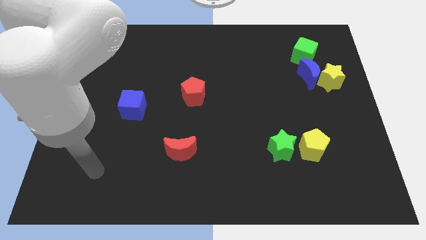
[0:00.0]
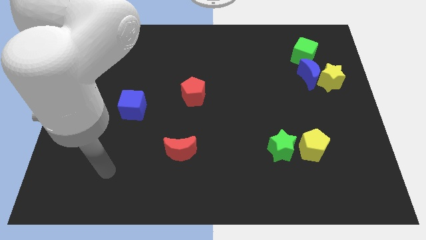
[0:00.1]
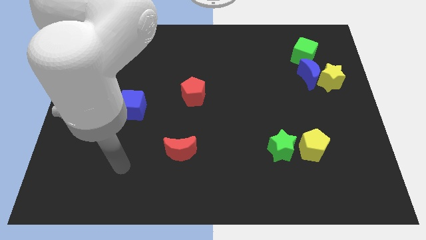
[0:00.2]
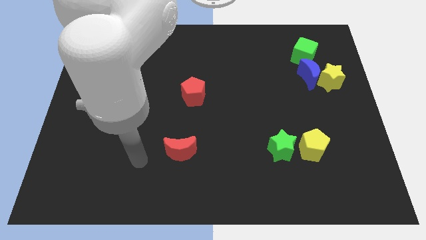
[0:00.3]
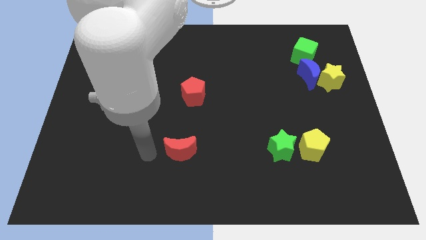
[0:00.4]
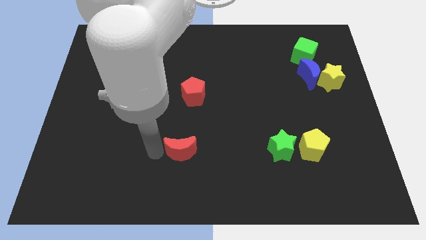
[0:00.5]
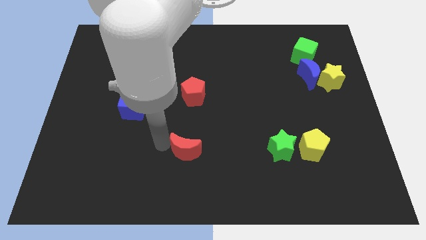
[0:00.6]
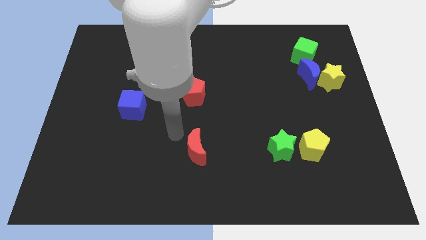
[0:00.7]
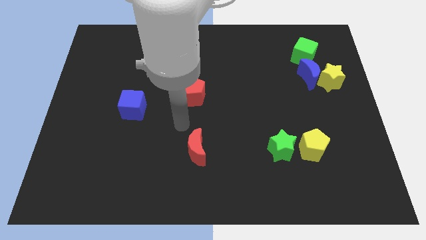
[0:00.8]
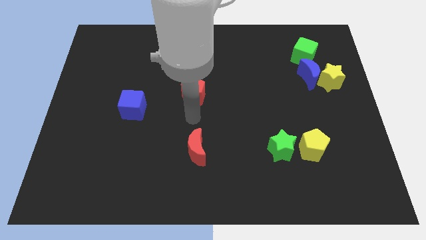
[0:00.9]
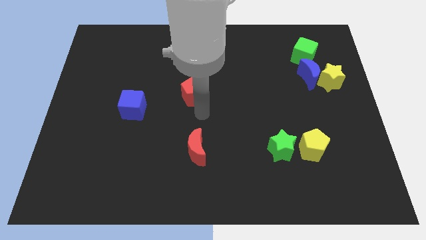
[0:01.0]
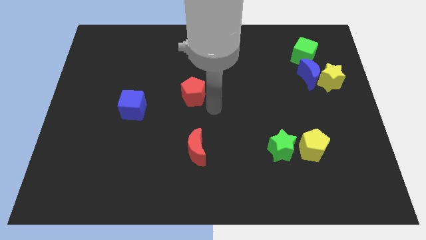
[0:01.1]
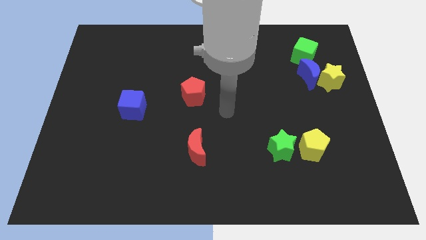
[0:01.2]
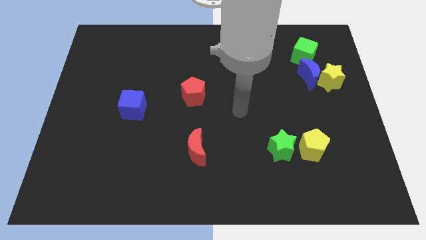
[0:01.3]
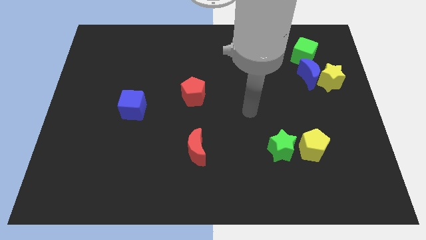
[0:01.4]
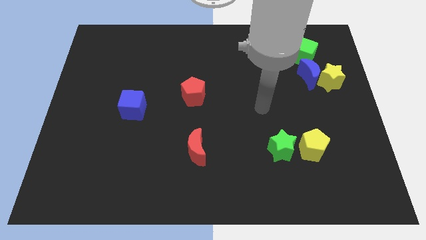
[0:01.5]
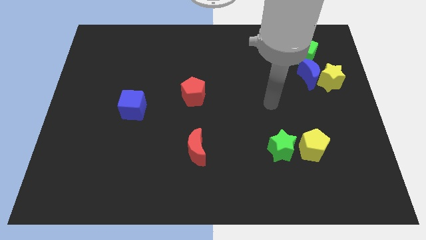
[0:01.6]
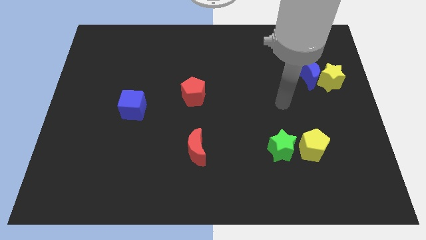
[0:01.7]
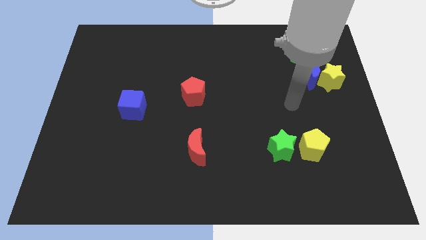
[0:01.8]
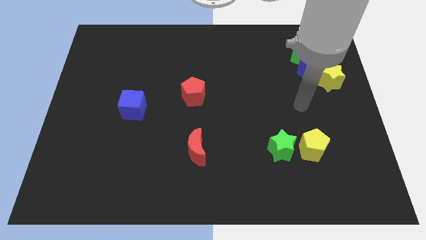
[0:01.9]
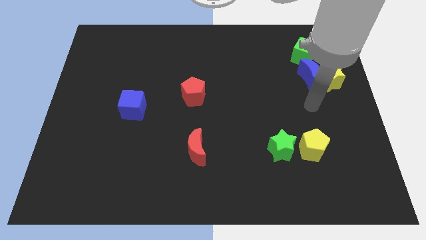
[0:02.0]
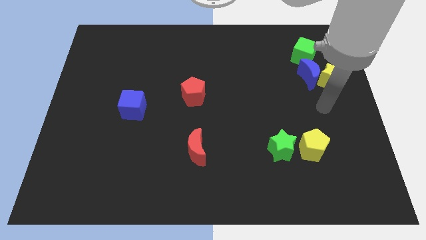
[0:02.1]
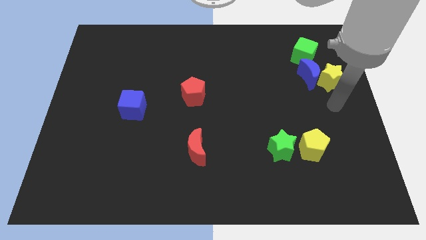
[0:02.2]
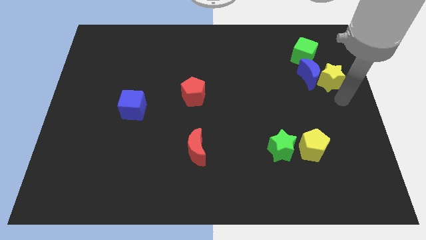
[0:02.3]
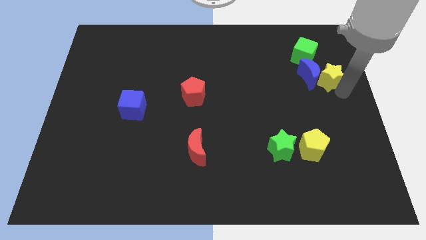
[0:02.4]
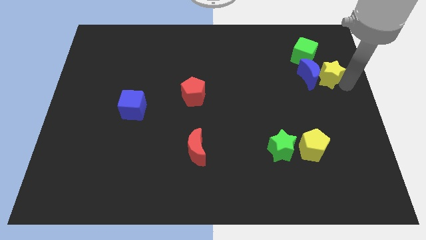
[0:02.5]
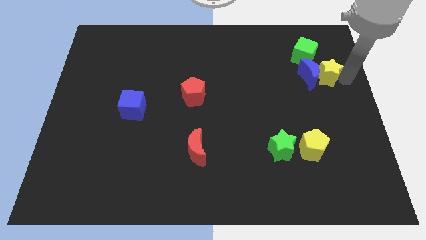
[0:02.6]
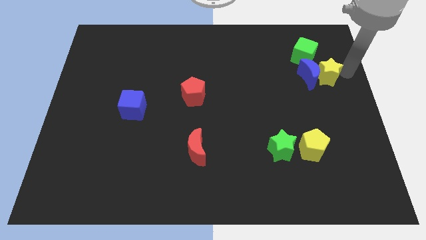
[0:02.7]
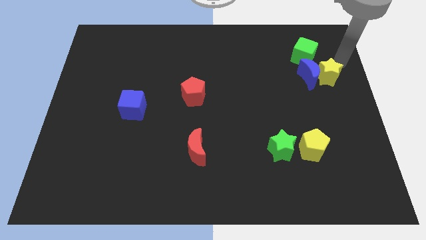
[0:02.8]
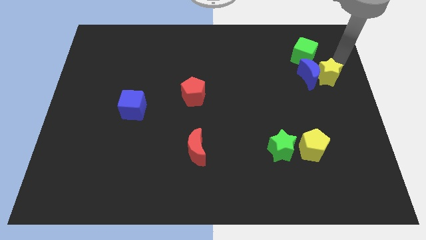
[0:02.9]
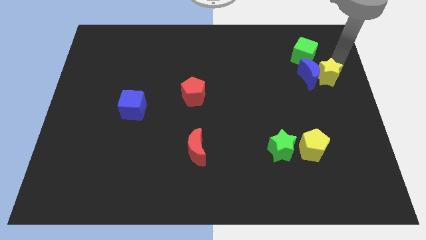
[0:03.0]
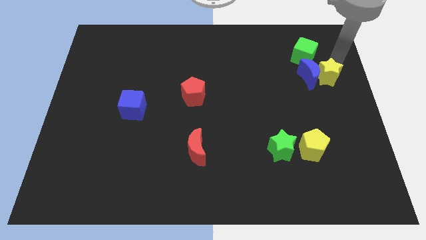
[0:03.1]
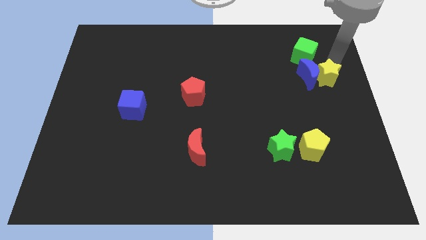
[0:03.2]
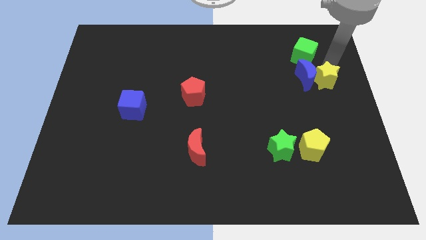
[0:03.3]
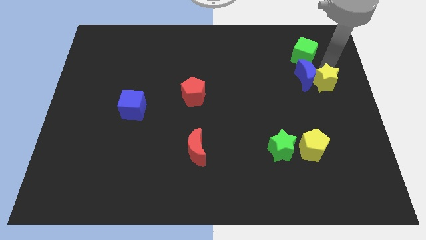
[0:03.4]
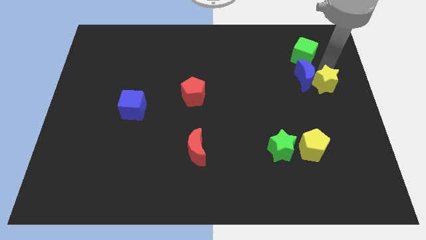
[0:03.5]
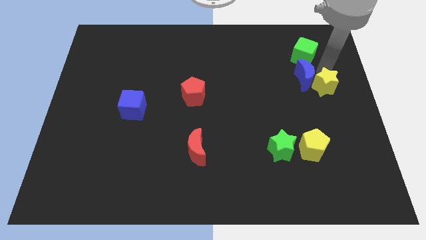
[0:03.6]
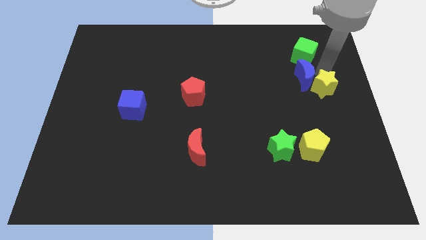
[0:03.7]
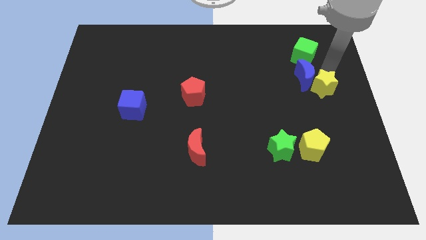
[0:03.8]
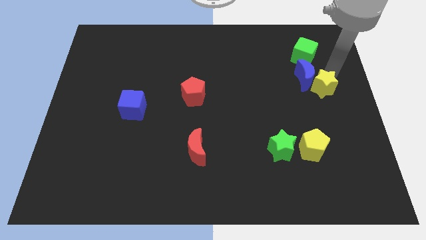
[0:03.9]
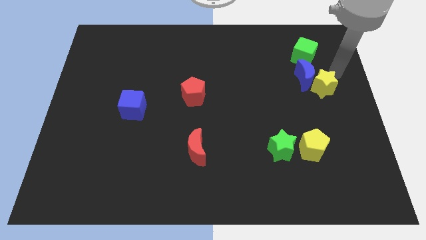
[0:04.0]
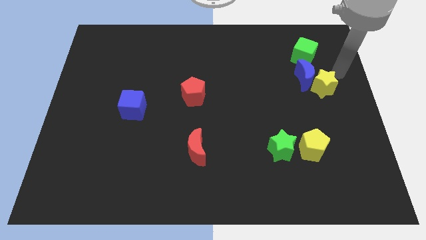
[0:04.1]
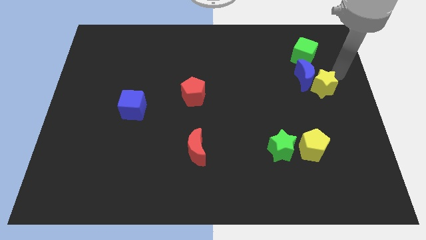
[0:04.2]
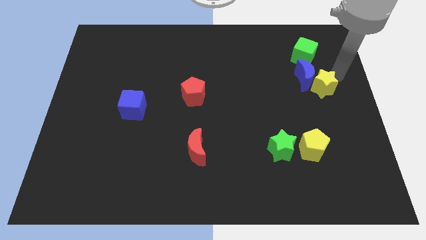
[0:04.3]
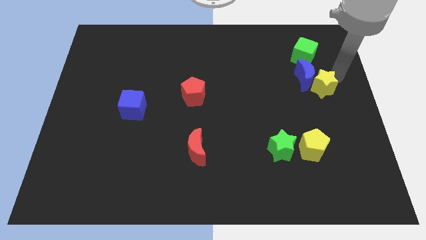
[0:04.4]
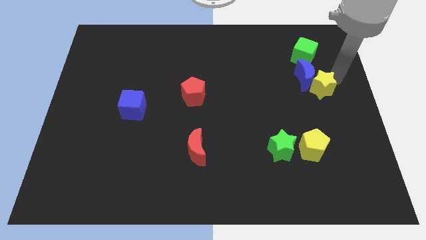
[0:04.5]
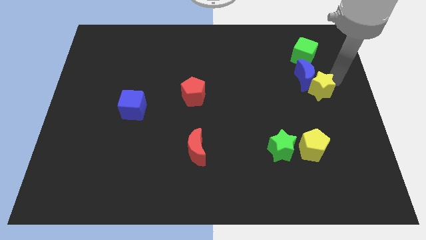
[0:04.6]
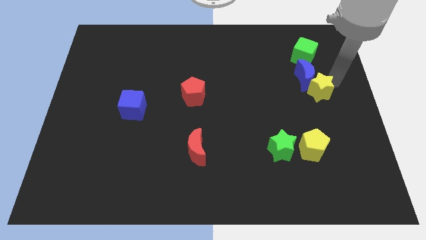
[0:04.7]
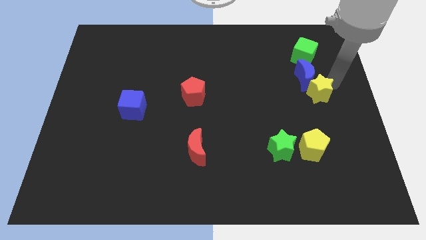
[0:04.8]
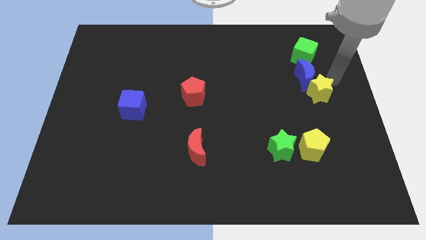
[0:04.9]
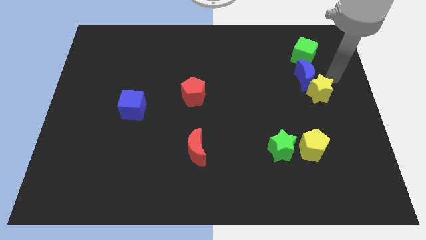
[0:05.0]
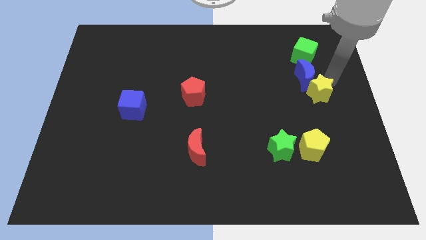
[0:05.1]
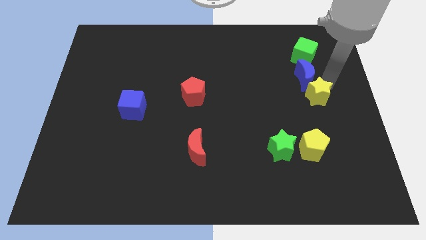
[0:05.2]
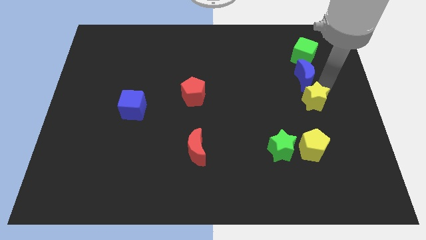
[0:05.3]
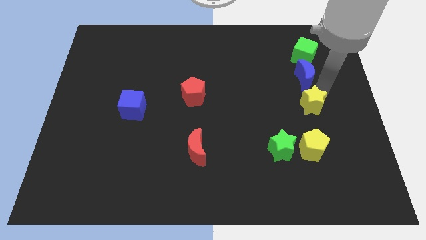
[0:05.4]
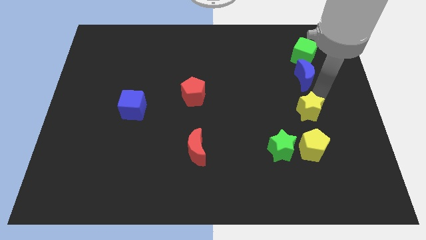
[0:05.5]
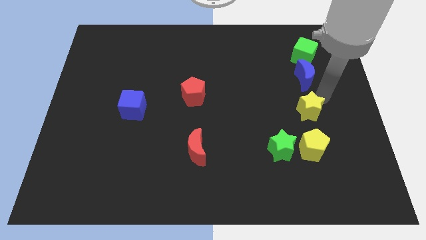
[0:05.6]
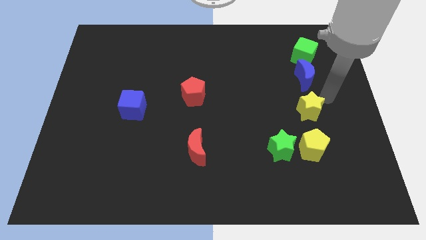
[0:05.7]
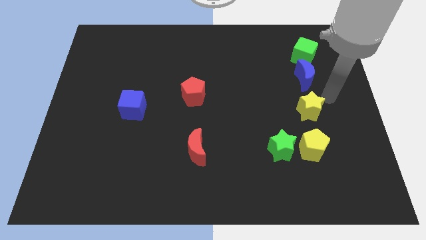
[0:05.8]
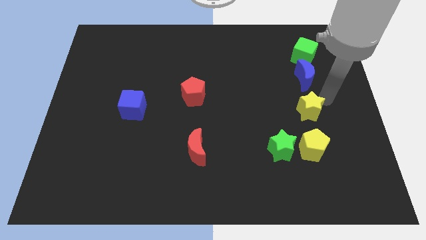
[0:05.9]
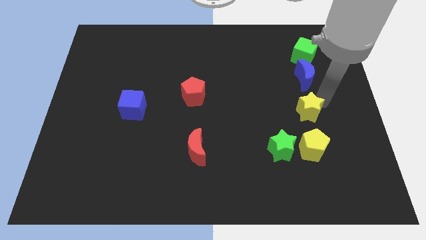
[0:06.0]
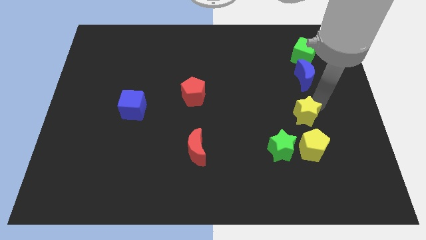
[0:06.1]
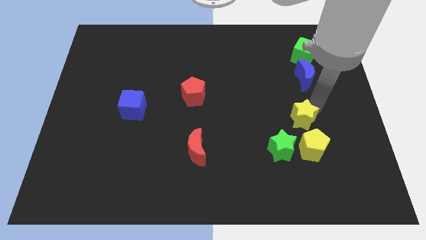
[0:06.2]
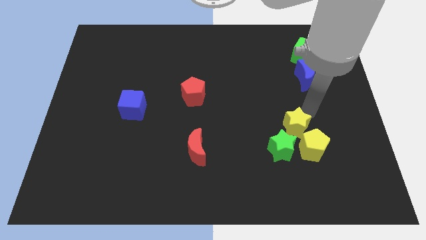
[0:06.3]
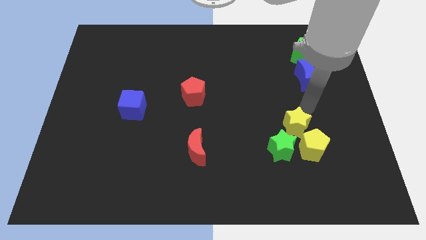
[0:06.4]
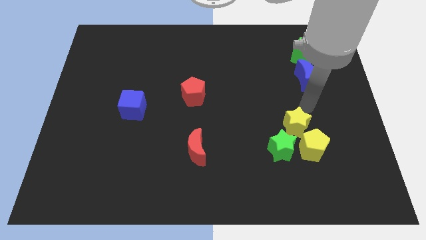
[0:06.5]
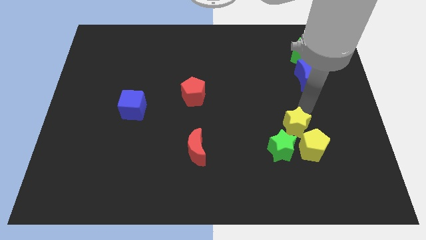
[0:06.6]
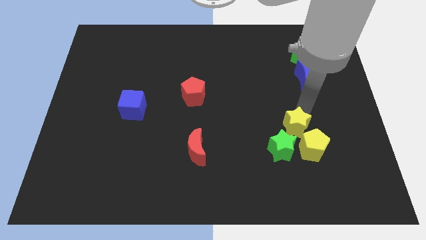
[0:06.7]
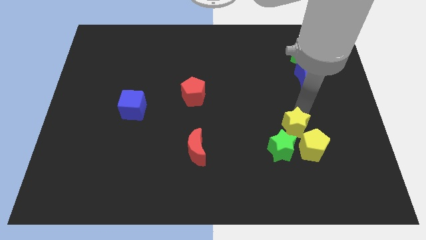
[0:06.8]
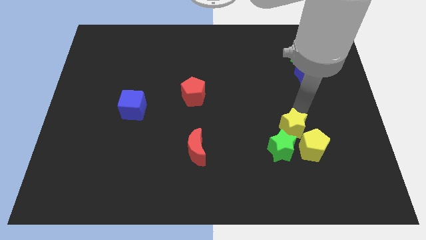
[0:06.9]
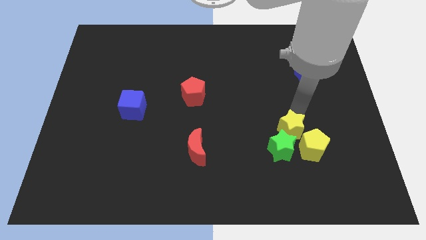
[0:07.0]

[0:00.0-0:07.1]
move the yellow star next to the green star

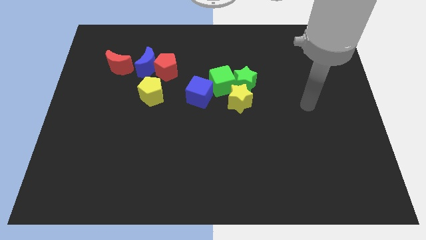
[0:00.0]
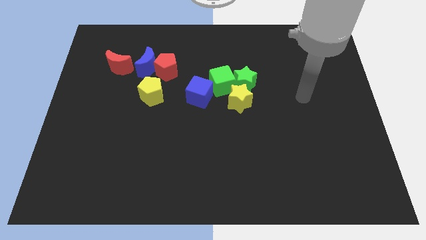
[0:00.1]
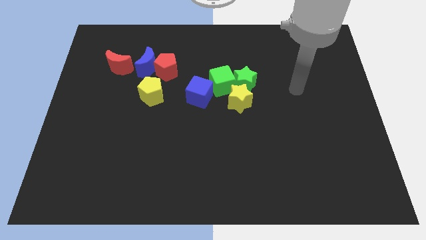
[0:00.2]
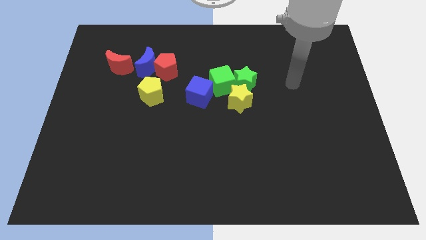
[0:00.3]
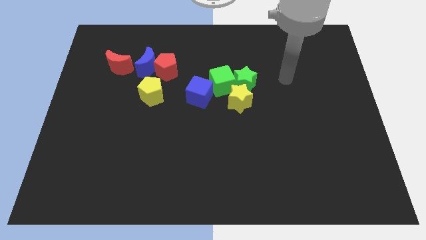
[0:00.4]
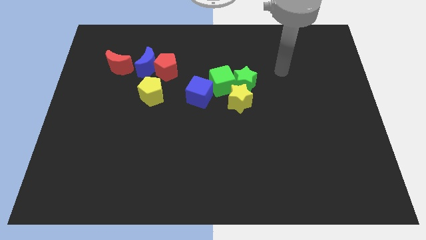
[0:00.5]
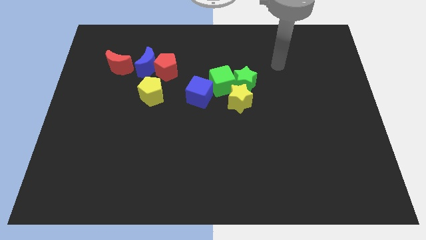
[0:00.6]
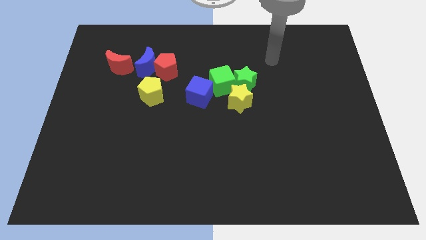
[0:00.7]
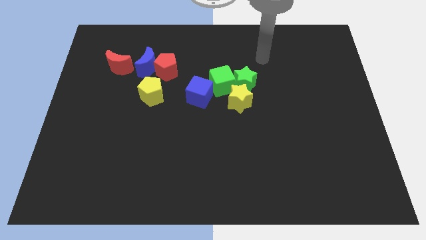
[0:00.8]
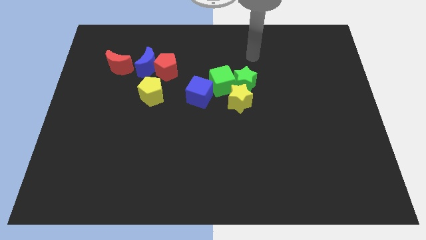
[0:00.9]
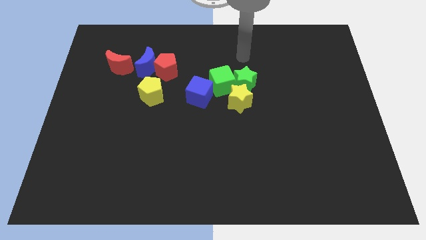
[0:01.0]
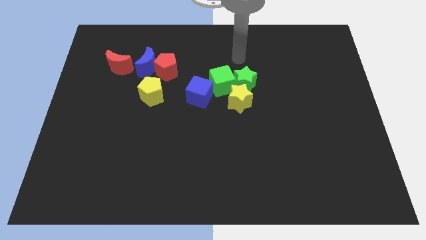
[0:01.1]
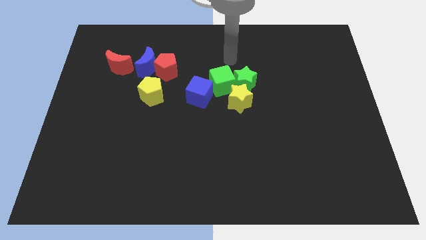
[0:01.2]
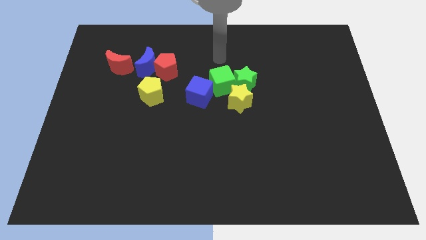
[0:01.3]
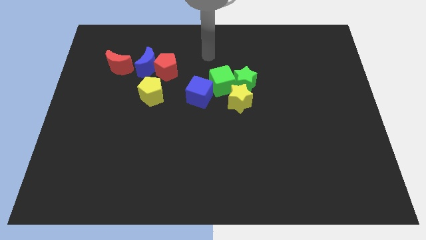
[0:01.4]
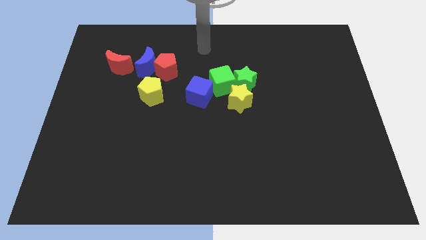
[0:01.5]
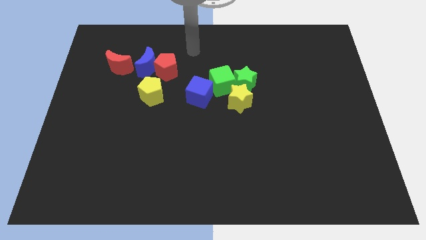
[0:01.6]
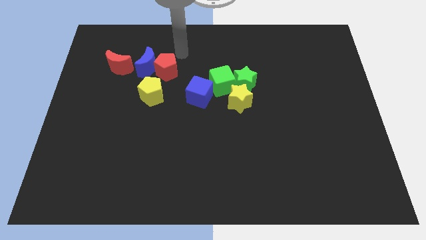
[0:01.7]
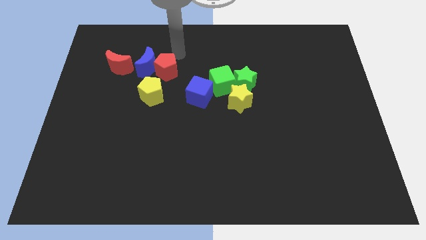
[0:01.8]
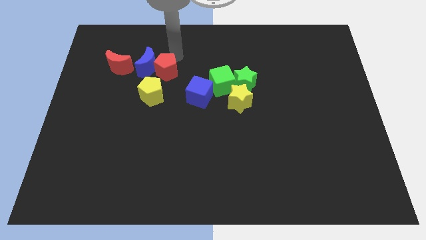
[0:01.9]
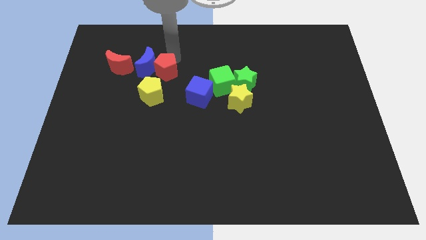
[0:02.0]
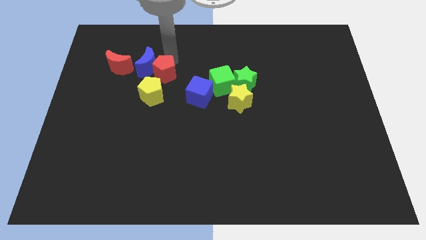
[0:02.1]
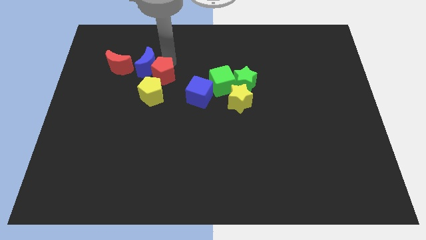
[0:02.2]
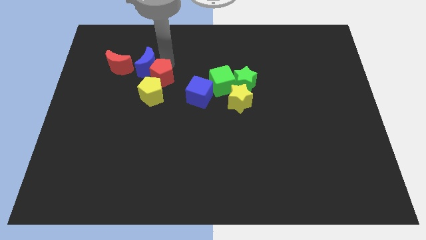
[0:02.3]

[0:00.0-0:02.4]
move the red pentagon next to the yellow pentagon
